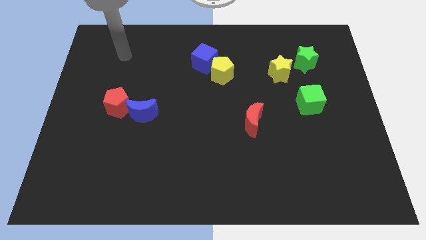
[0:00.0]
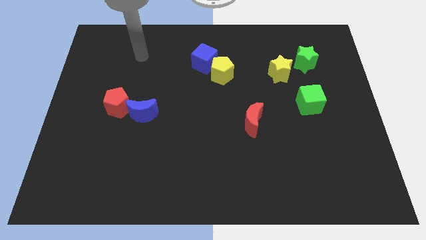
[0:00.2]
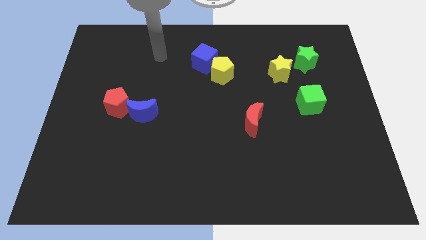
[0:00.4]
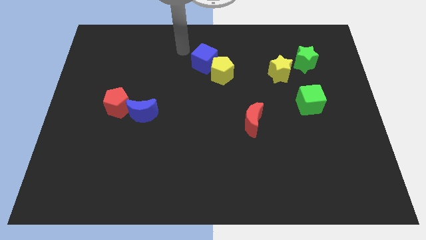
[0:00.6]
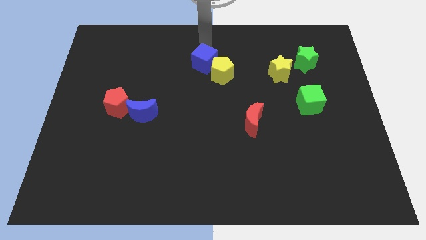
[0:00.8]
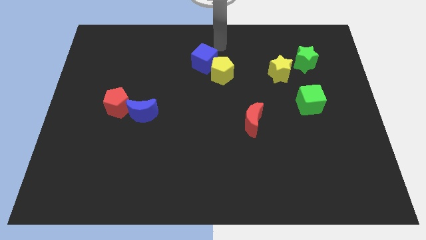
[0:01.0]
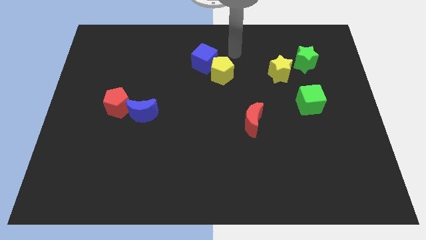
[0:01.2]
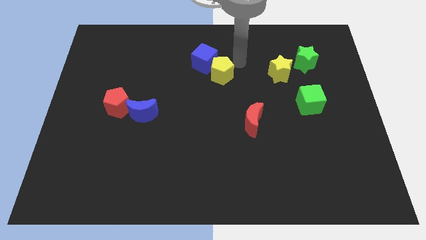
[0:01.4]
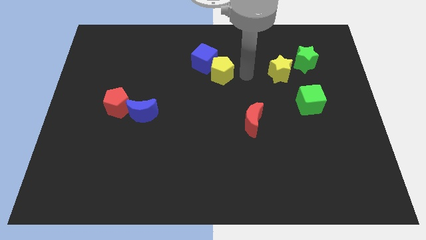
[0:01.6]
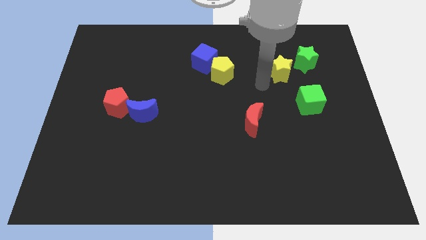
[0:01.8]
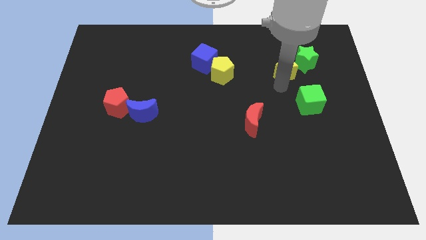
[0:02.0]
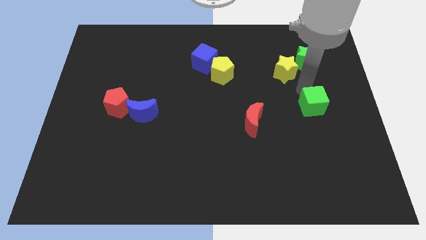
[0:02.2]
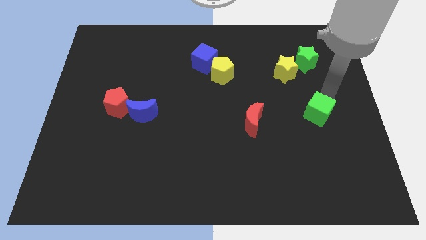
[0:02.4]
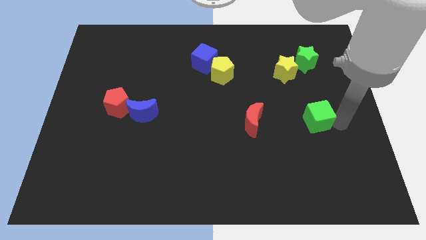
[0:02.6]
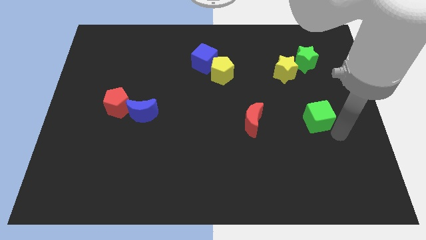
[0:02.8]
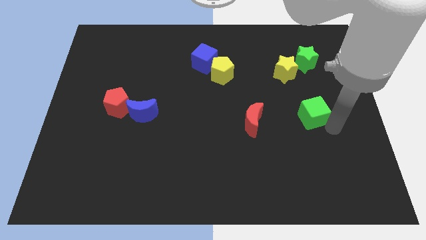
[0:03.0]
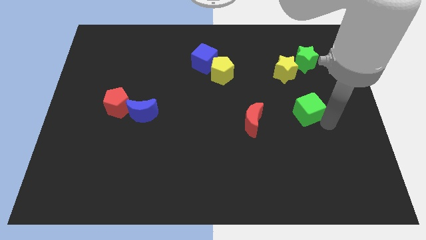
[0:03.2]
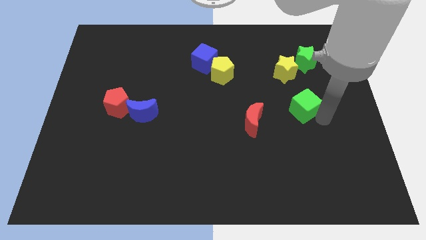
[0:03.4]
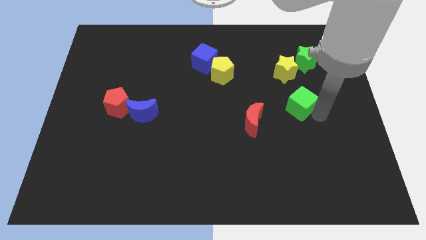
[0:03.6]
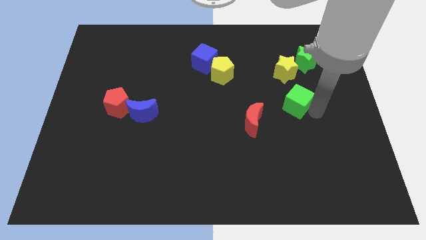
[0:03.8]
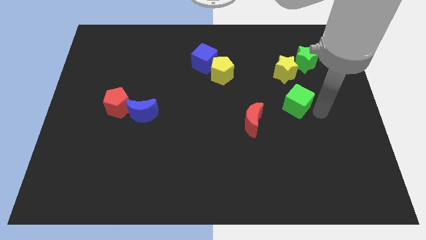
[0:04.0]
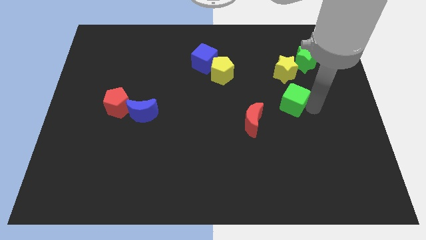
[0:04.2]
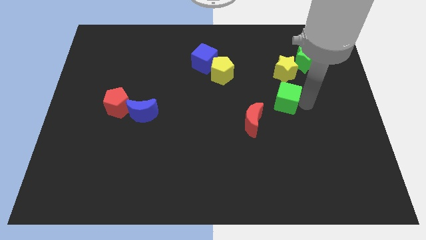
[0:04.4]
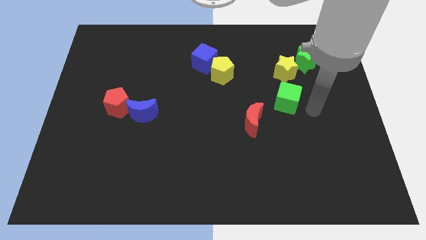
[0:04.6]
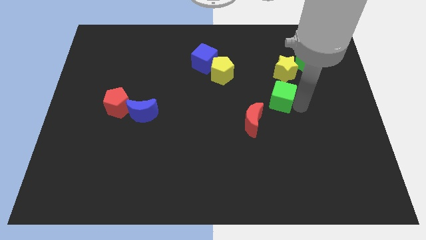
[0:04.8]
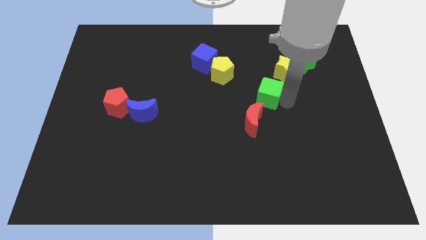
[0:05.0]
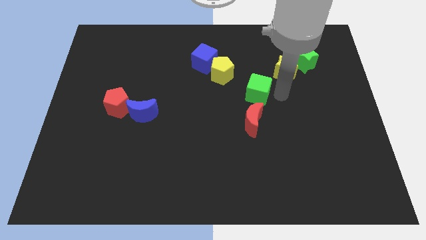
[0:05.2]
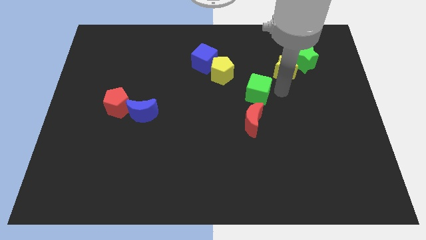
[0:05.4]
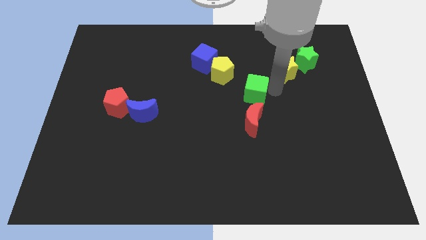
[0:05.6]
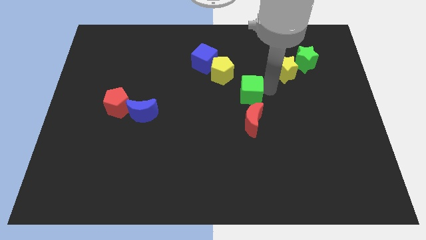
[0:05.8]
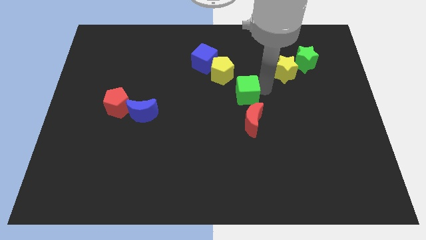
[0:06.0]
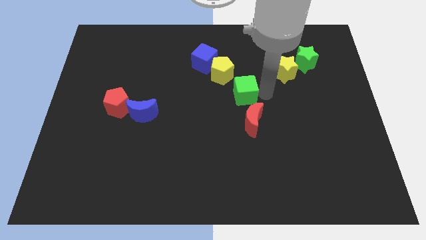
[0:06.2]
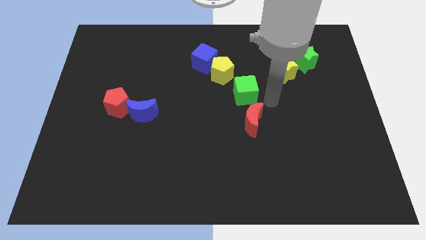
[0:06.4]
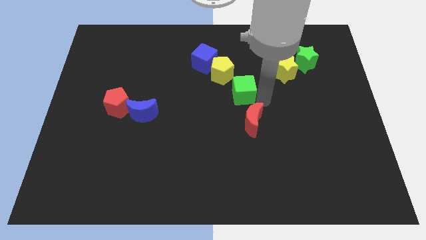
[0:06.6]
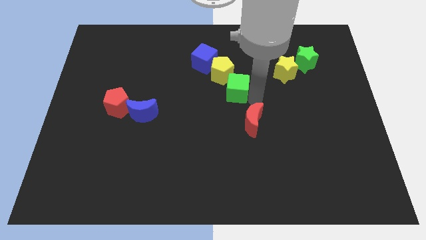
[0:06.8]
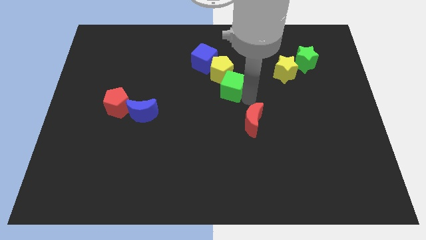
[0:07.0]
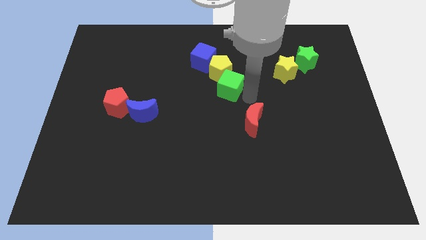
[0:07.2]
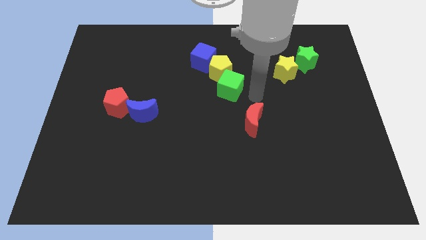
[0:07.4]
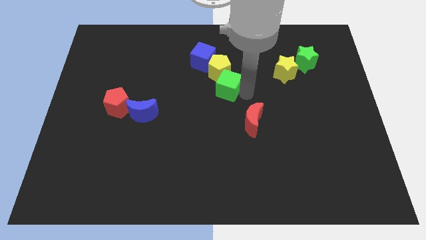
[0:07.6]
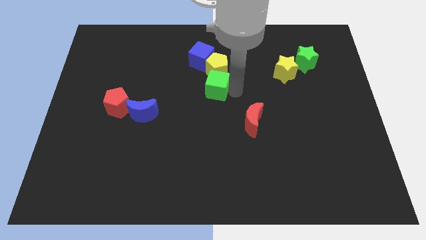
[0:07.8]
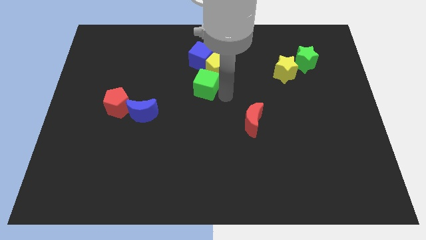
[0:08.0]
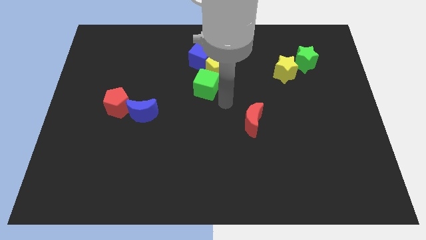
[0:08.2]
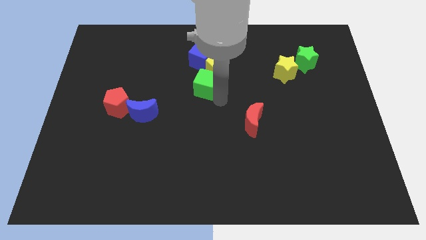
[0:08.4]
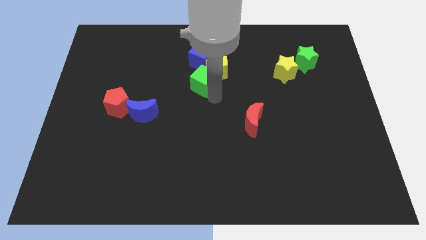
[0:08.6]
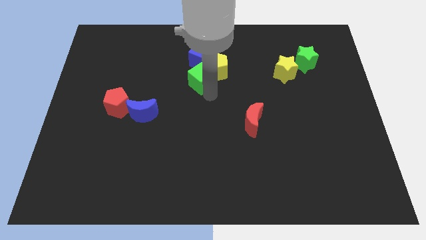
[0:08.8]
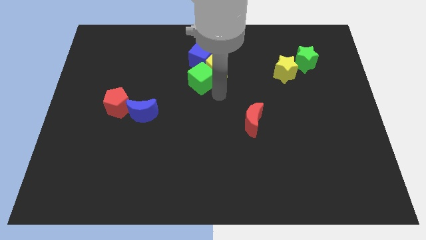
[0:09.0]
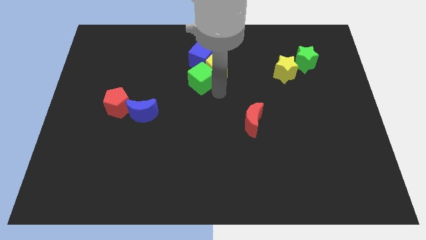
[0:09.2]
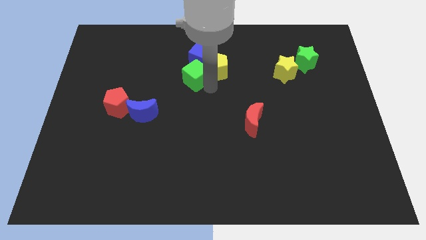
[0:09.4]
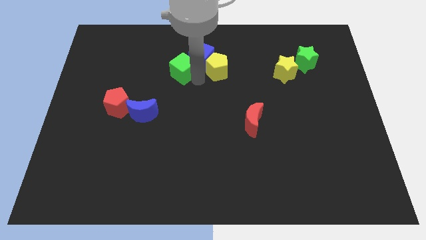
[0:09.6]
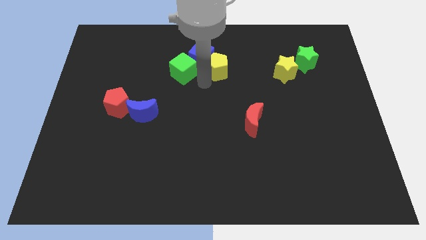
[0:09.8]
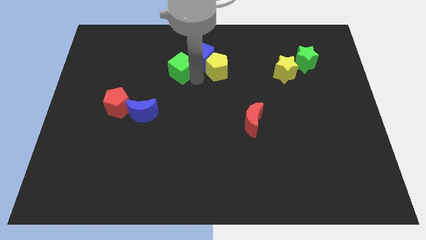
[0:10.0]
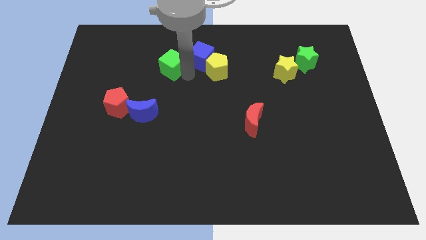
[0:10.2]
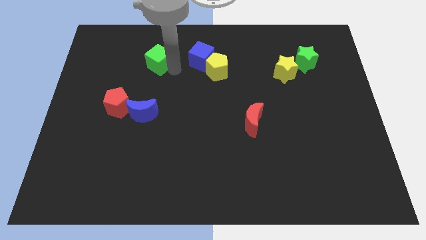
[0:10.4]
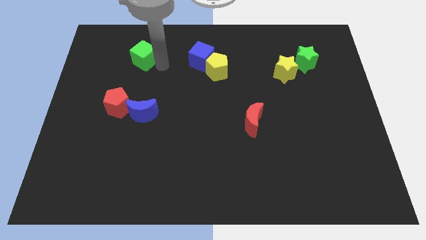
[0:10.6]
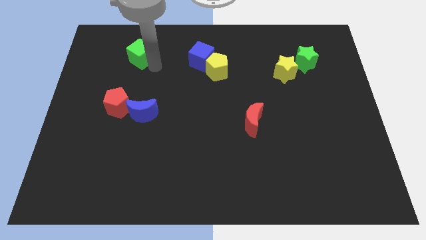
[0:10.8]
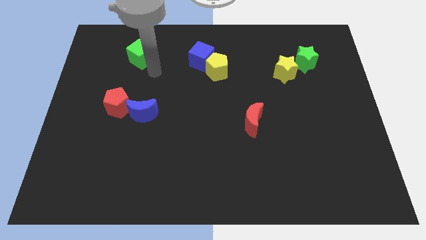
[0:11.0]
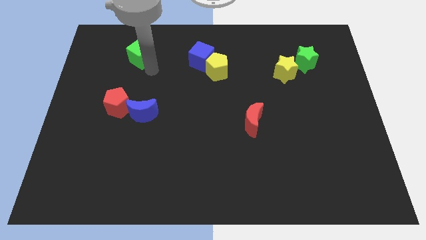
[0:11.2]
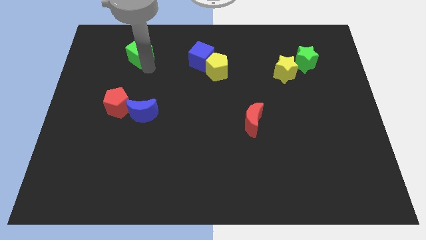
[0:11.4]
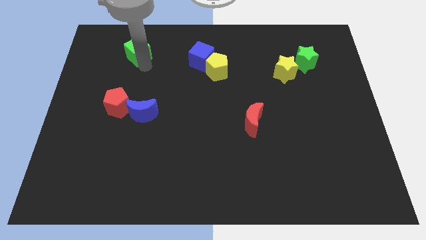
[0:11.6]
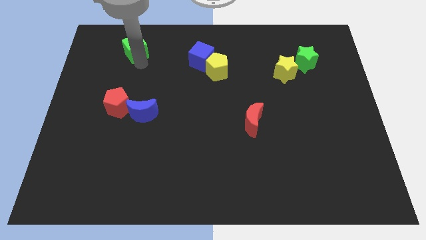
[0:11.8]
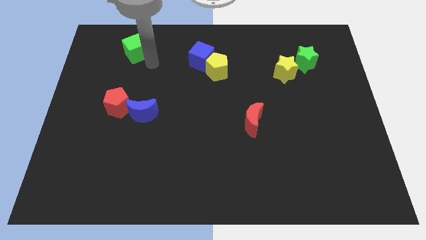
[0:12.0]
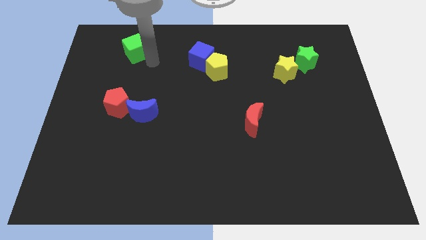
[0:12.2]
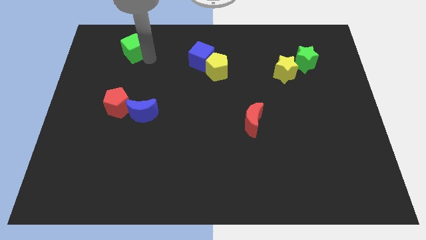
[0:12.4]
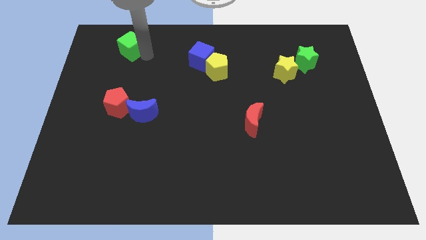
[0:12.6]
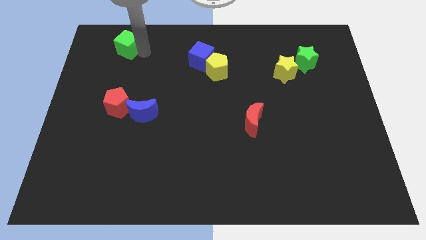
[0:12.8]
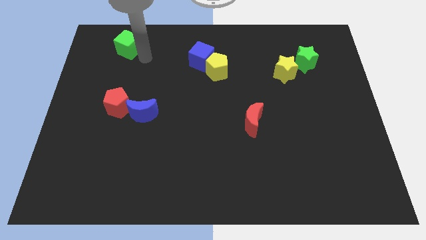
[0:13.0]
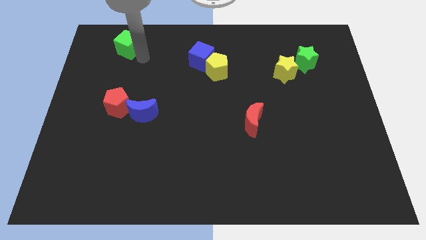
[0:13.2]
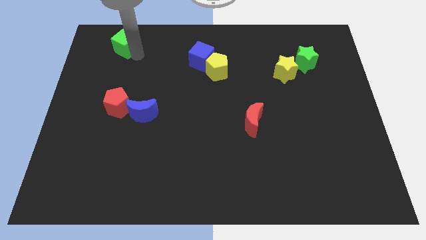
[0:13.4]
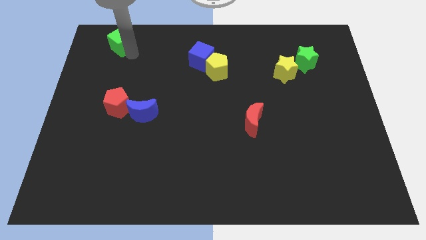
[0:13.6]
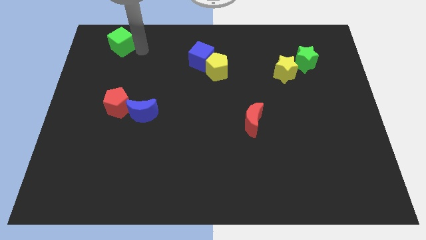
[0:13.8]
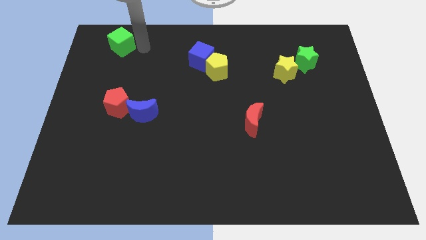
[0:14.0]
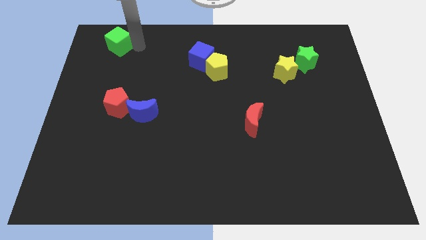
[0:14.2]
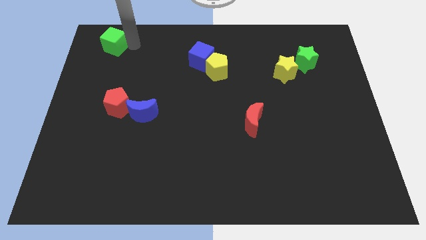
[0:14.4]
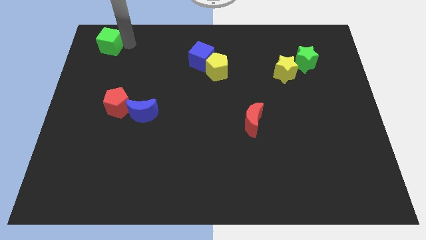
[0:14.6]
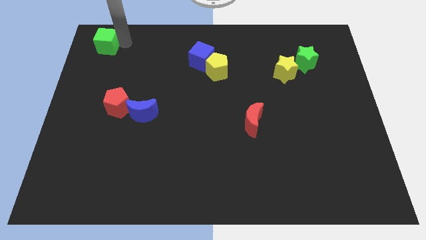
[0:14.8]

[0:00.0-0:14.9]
push the green cube to the top left
